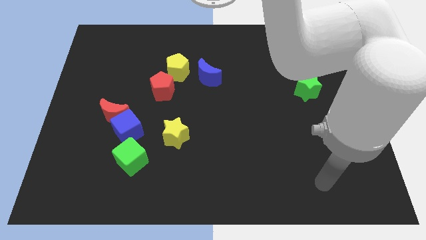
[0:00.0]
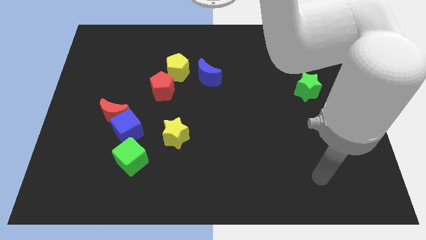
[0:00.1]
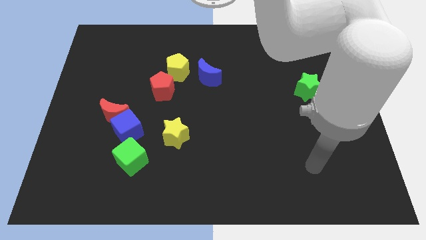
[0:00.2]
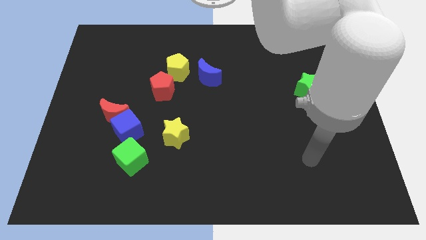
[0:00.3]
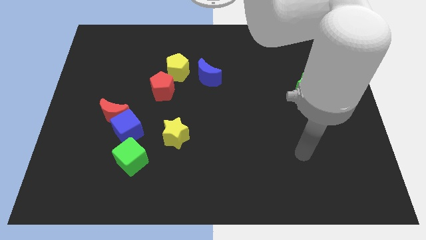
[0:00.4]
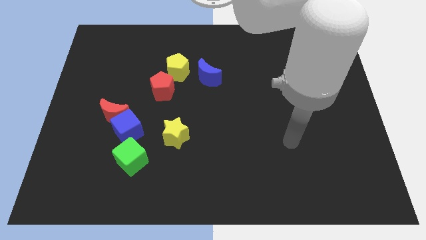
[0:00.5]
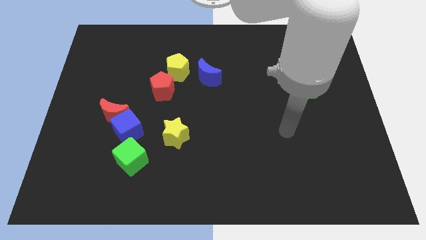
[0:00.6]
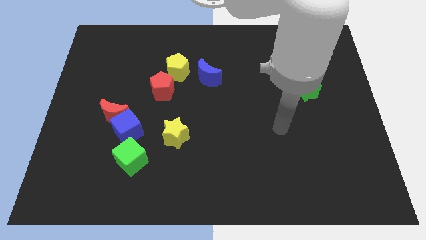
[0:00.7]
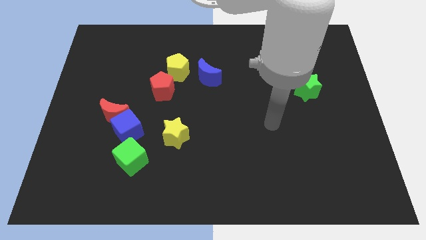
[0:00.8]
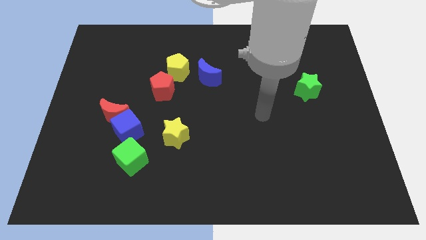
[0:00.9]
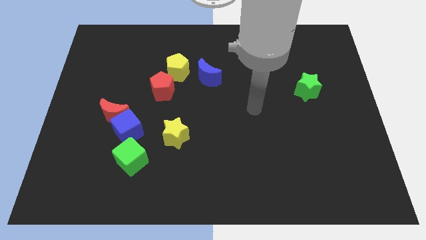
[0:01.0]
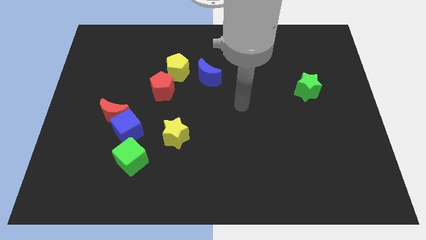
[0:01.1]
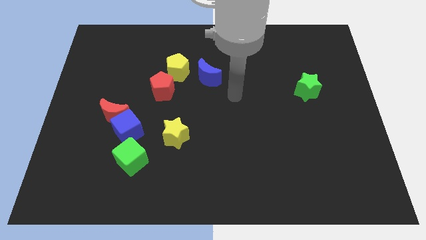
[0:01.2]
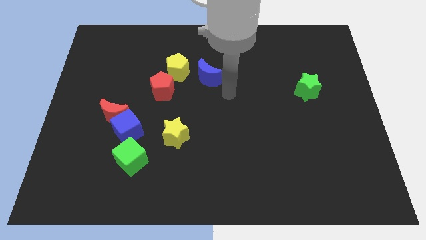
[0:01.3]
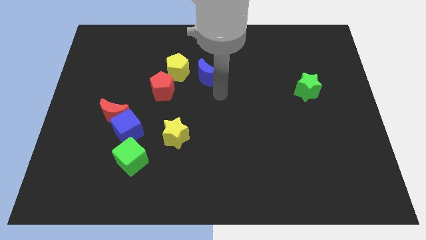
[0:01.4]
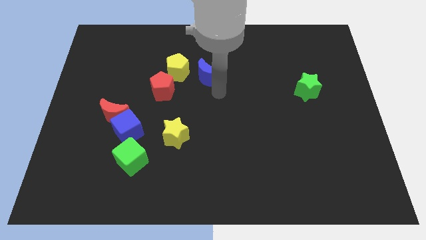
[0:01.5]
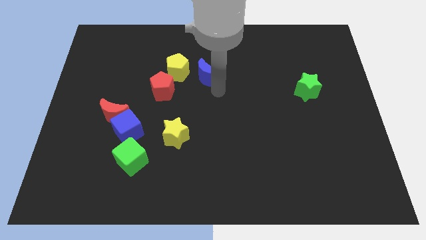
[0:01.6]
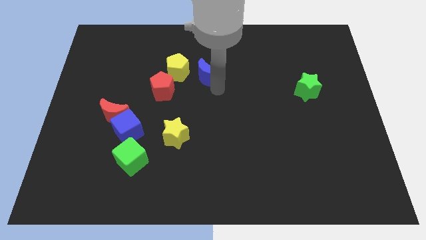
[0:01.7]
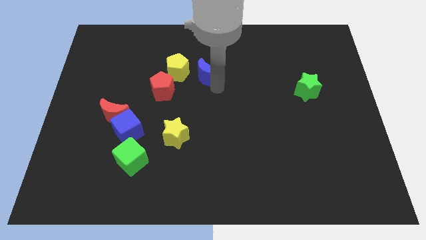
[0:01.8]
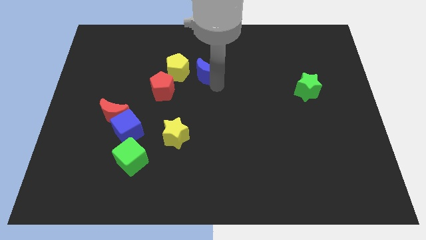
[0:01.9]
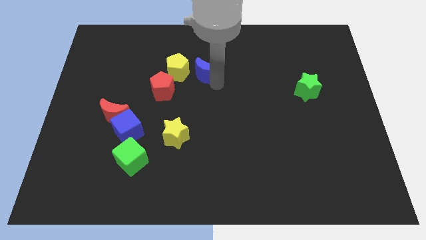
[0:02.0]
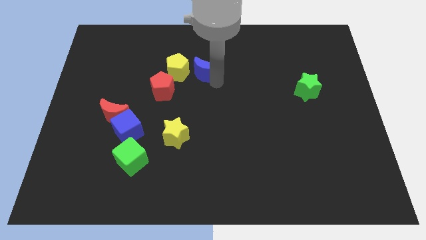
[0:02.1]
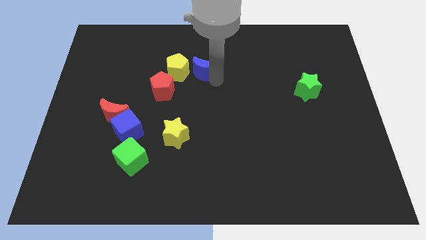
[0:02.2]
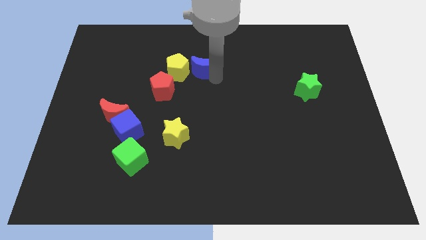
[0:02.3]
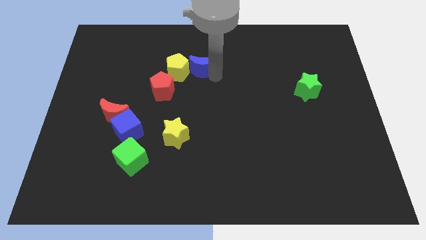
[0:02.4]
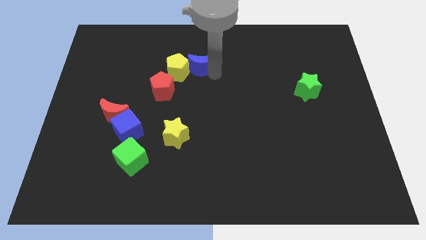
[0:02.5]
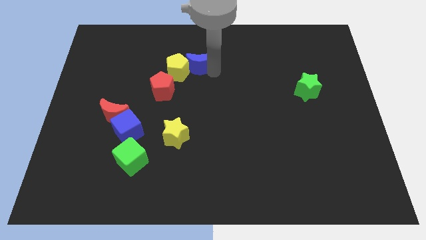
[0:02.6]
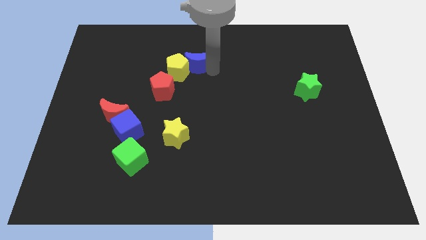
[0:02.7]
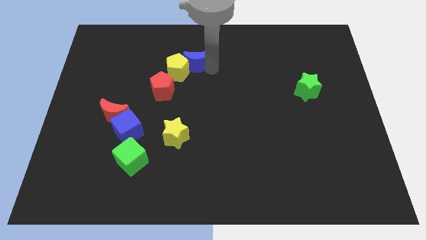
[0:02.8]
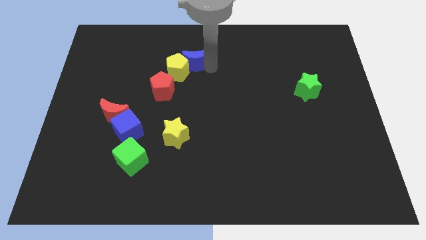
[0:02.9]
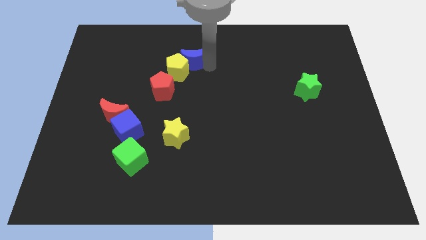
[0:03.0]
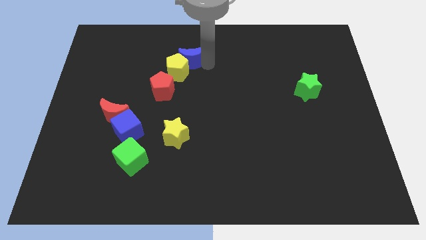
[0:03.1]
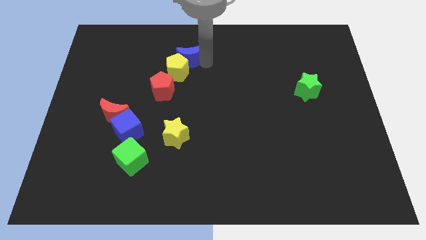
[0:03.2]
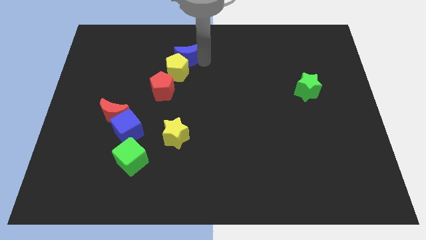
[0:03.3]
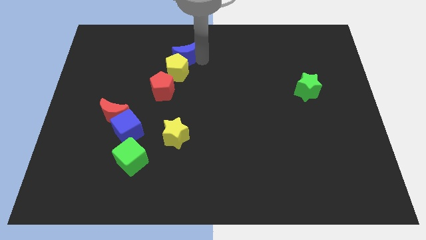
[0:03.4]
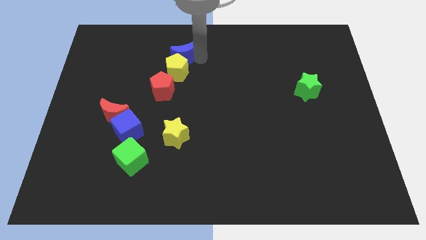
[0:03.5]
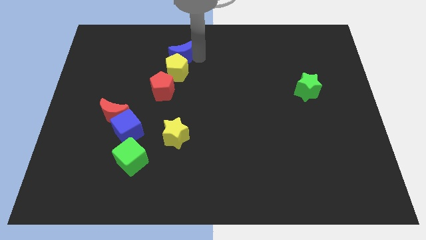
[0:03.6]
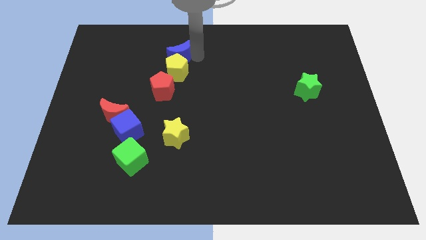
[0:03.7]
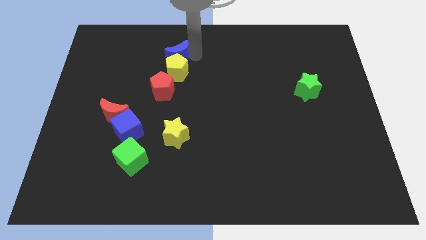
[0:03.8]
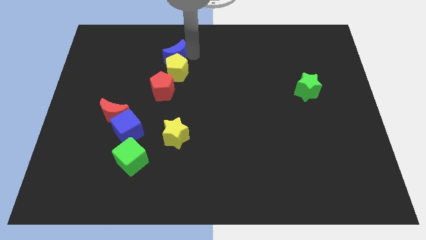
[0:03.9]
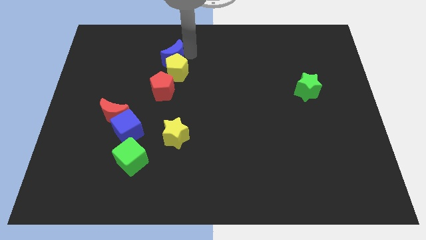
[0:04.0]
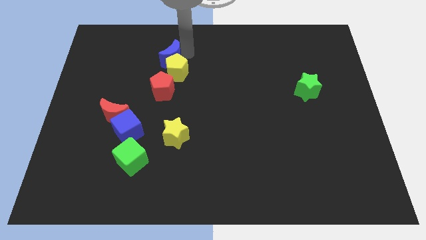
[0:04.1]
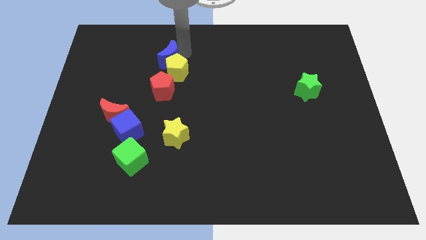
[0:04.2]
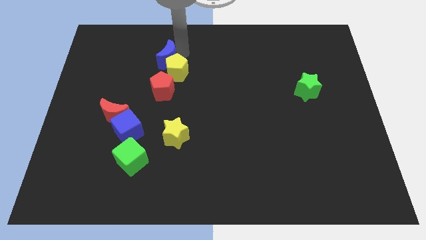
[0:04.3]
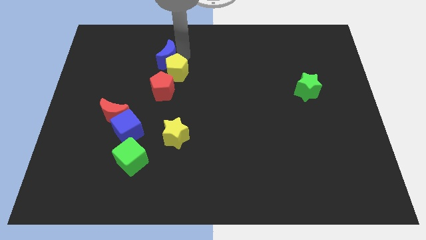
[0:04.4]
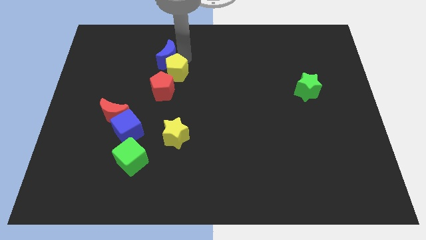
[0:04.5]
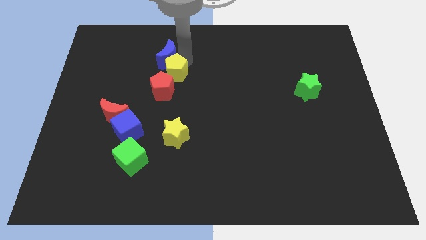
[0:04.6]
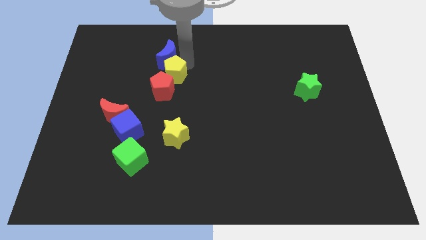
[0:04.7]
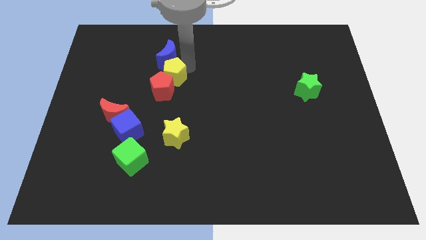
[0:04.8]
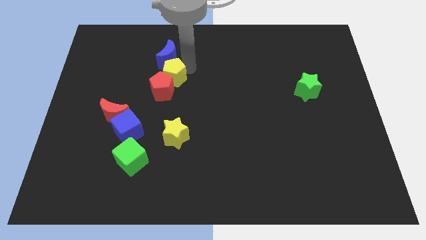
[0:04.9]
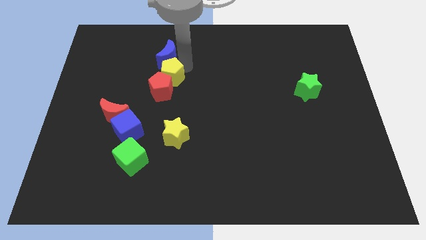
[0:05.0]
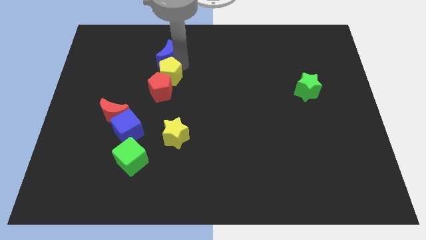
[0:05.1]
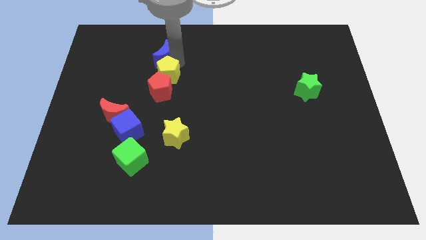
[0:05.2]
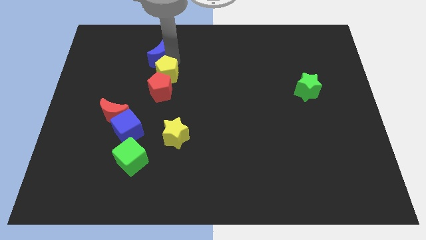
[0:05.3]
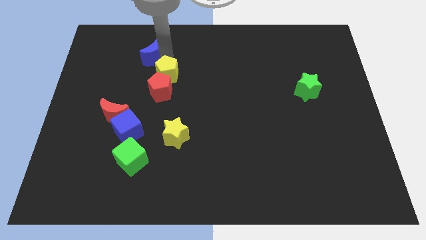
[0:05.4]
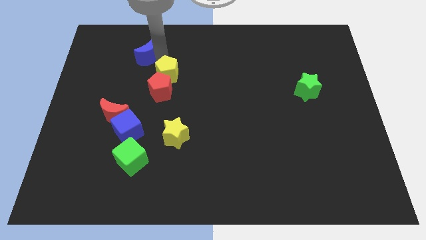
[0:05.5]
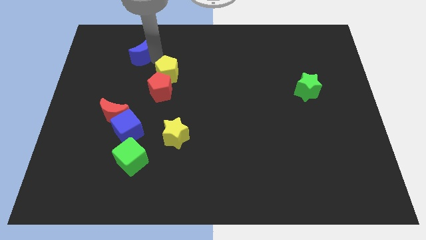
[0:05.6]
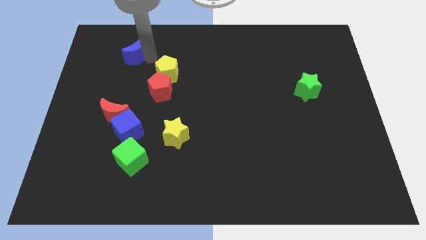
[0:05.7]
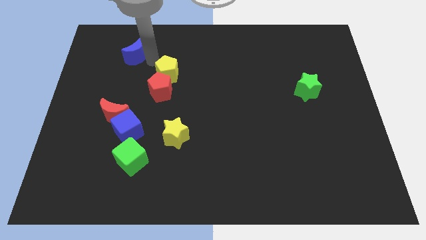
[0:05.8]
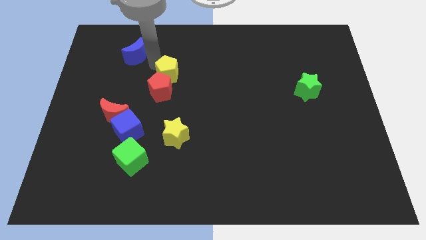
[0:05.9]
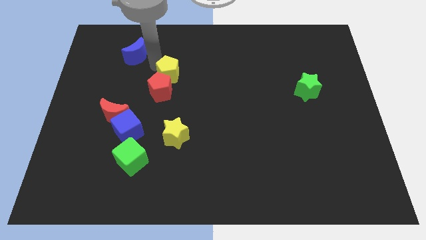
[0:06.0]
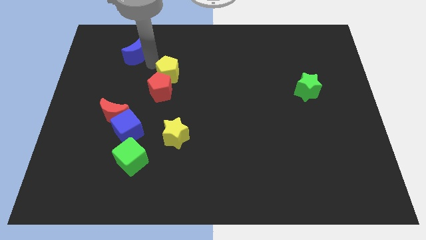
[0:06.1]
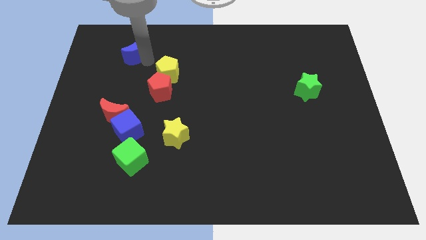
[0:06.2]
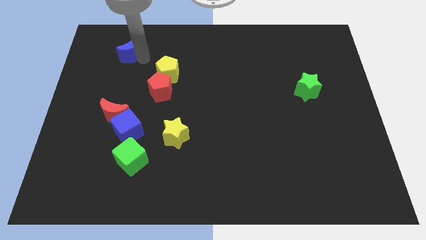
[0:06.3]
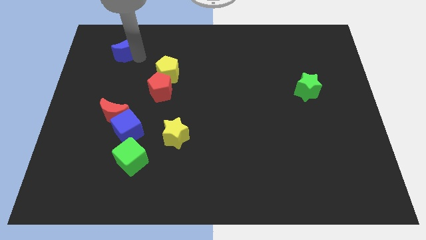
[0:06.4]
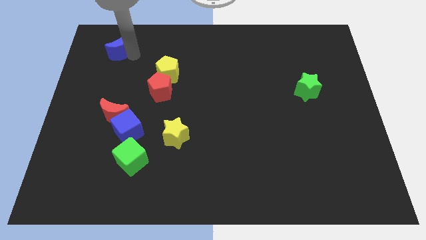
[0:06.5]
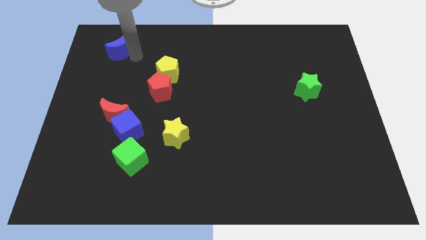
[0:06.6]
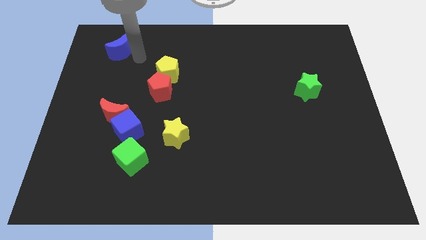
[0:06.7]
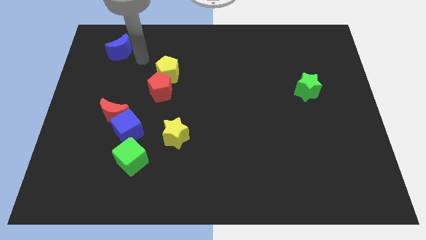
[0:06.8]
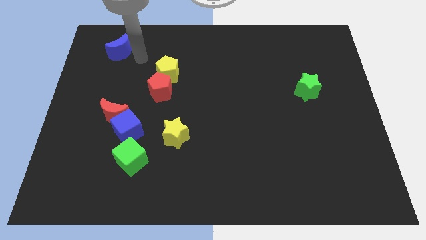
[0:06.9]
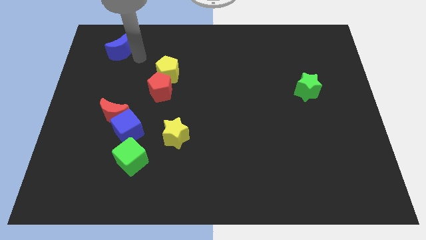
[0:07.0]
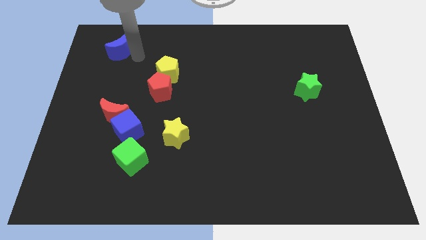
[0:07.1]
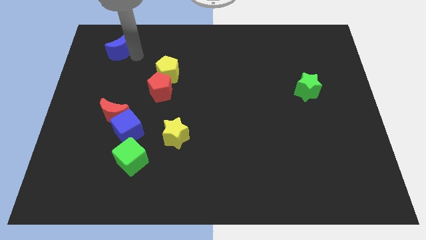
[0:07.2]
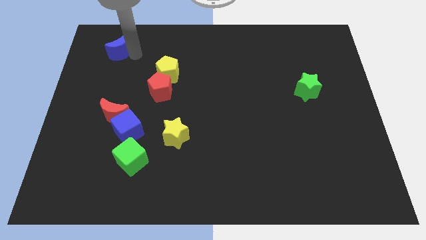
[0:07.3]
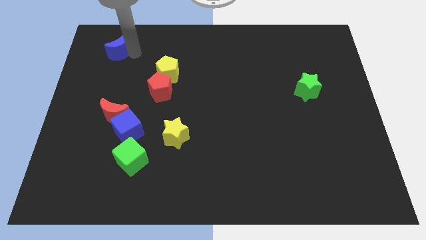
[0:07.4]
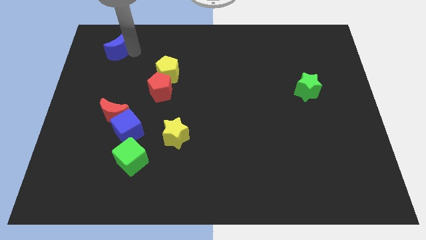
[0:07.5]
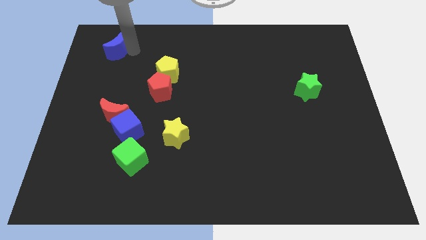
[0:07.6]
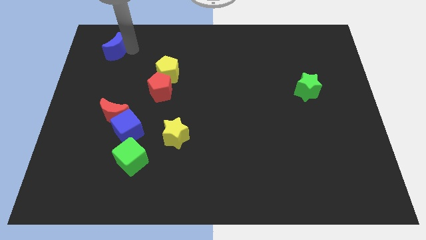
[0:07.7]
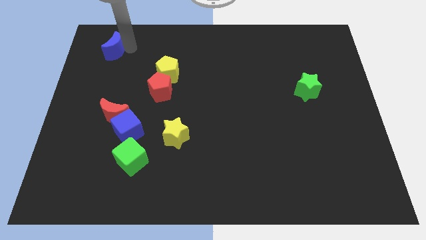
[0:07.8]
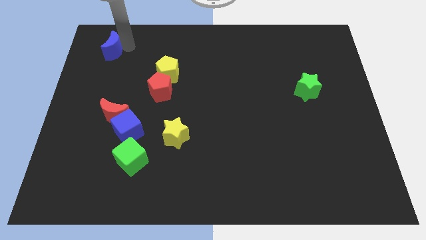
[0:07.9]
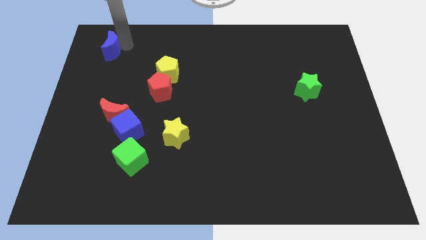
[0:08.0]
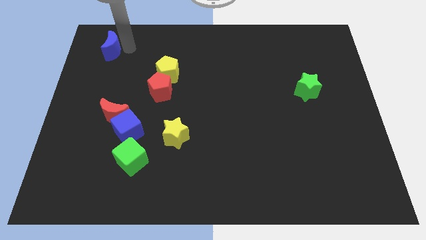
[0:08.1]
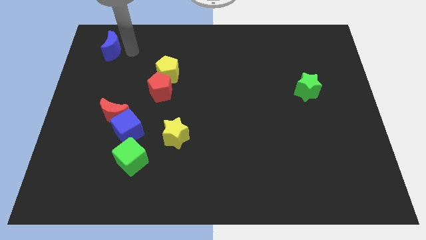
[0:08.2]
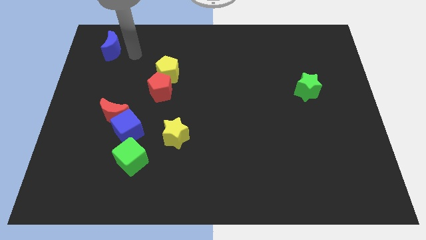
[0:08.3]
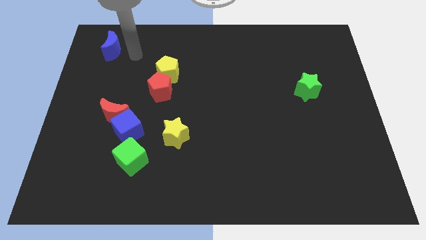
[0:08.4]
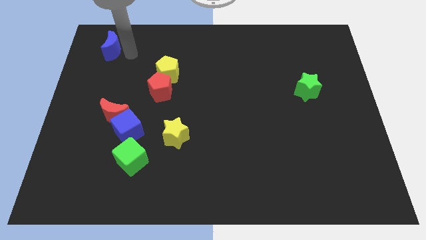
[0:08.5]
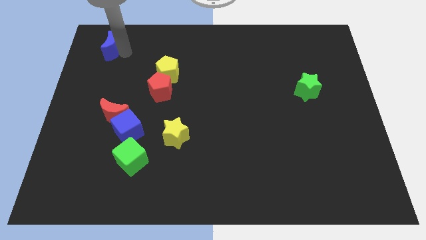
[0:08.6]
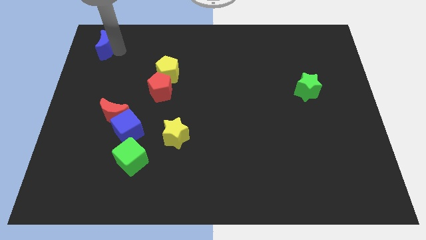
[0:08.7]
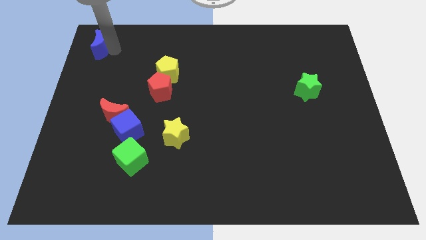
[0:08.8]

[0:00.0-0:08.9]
slide the blue moon to the top left corner
